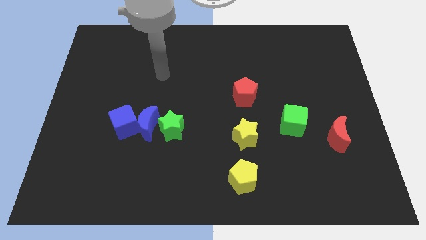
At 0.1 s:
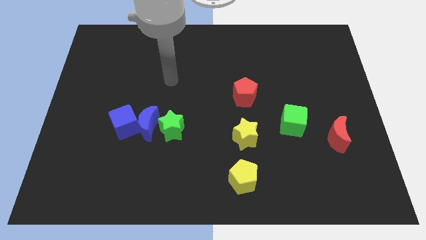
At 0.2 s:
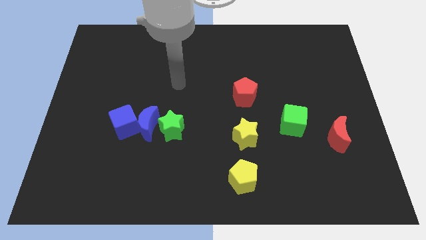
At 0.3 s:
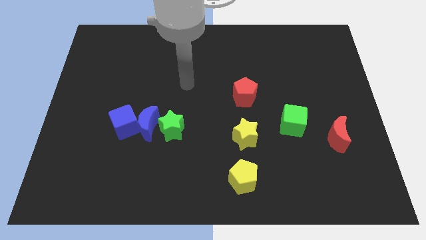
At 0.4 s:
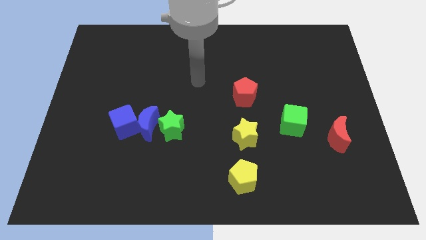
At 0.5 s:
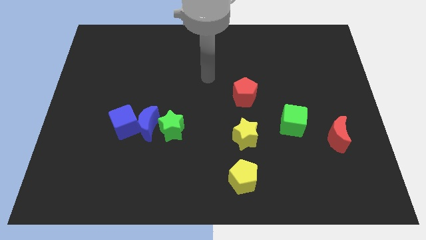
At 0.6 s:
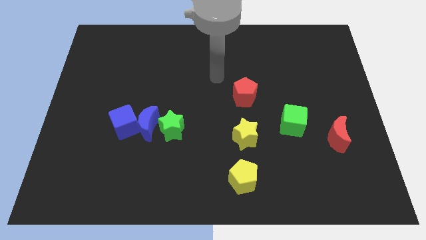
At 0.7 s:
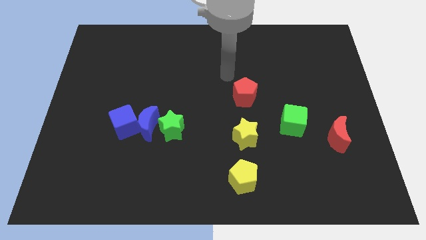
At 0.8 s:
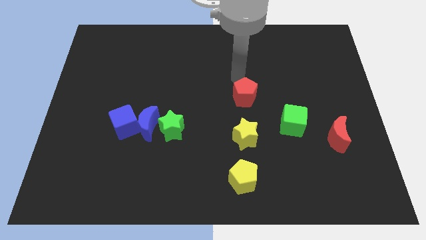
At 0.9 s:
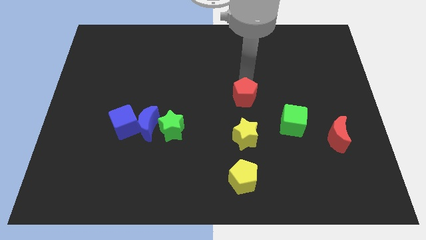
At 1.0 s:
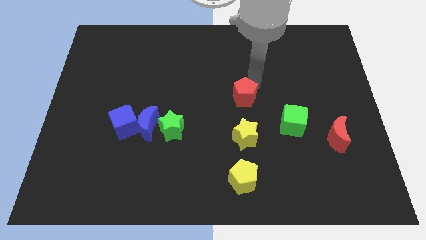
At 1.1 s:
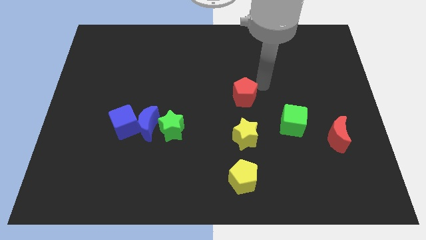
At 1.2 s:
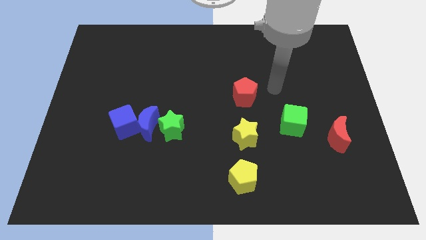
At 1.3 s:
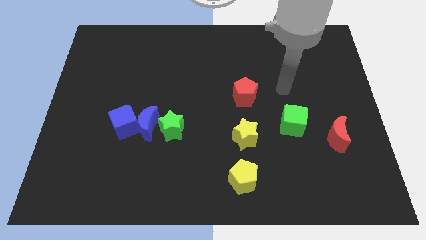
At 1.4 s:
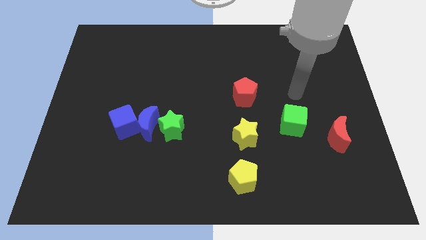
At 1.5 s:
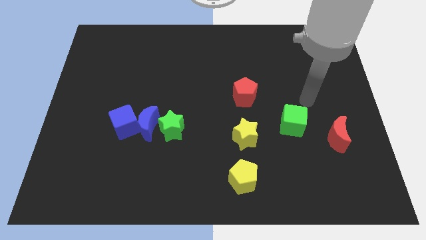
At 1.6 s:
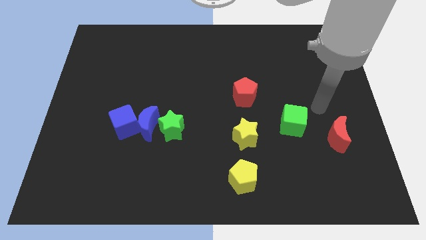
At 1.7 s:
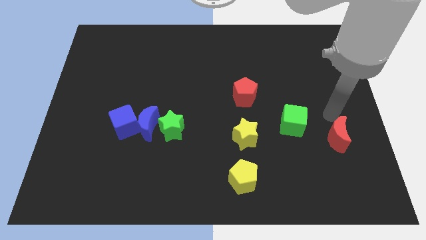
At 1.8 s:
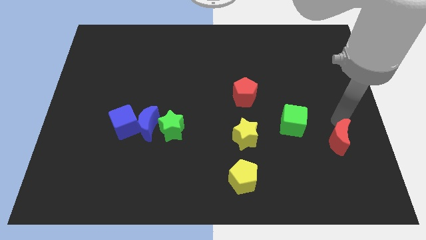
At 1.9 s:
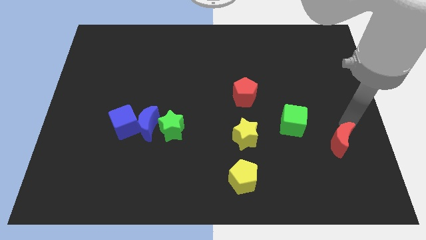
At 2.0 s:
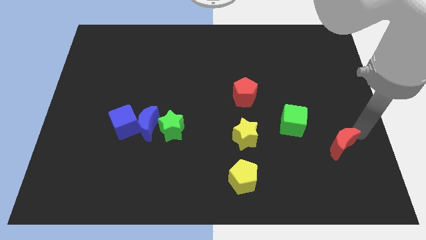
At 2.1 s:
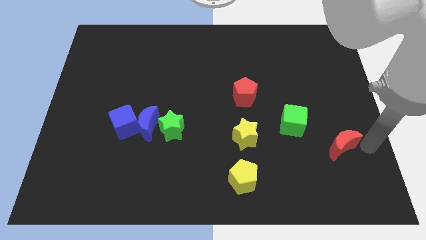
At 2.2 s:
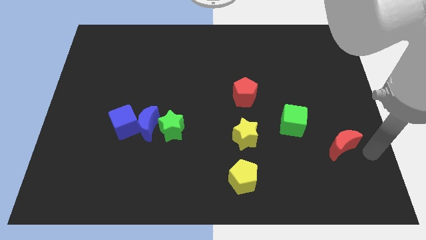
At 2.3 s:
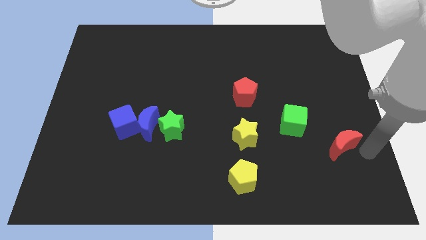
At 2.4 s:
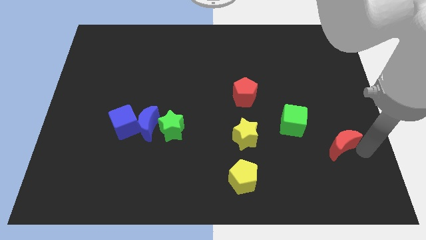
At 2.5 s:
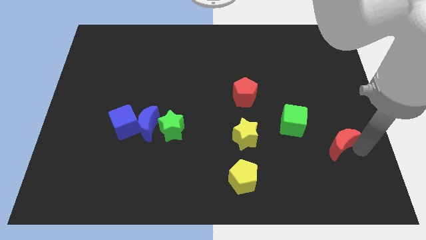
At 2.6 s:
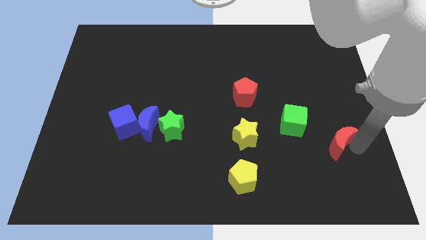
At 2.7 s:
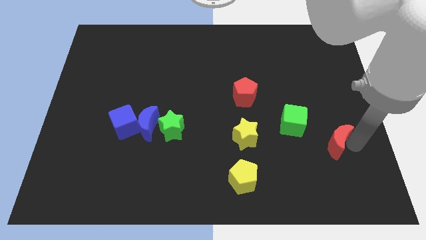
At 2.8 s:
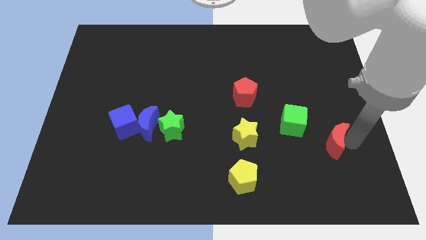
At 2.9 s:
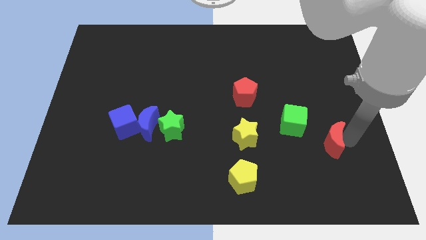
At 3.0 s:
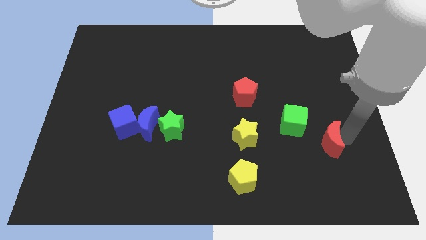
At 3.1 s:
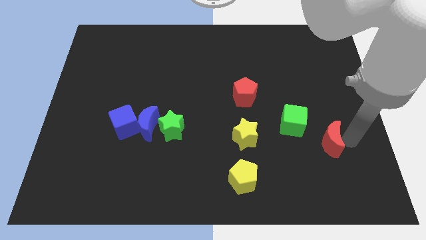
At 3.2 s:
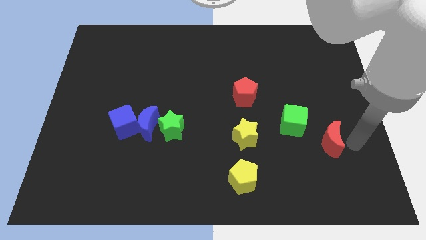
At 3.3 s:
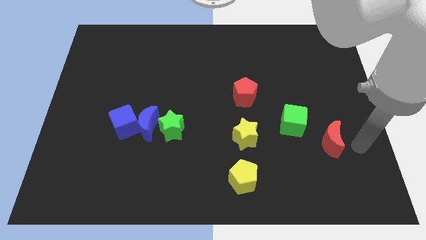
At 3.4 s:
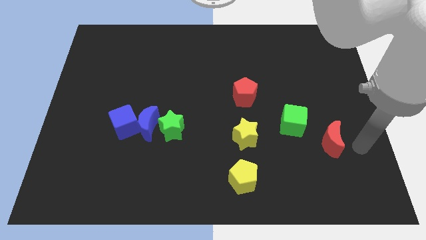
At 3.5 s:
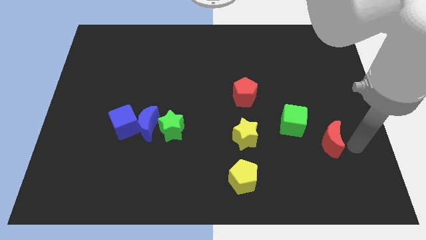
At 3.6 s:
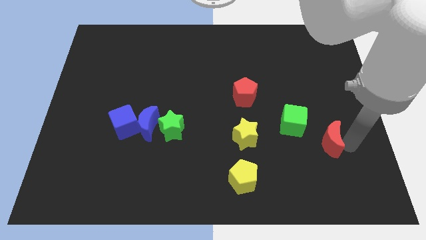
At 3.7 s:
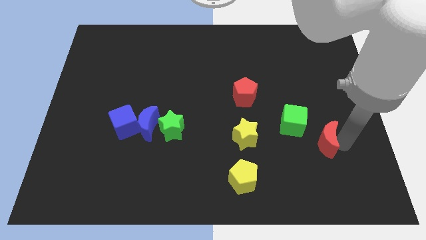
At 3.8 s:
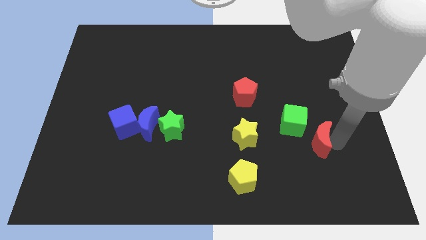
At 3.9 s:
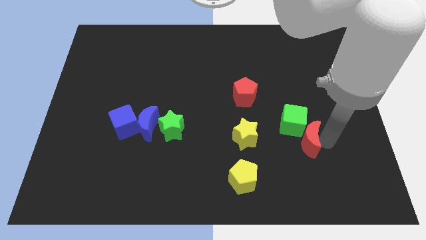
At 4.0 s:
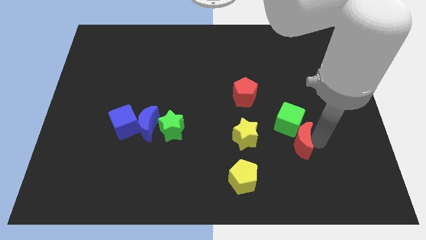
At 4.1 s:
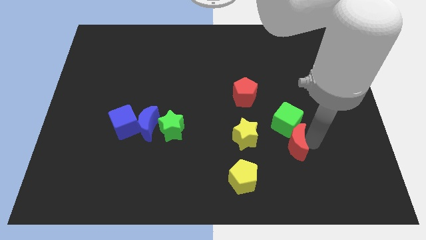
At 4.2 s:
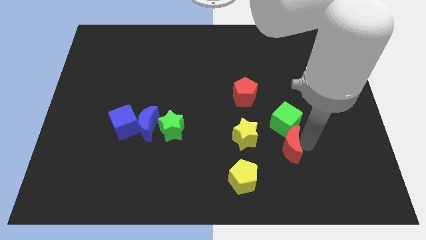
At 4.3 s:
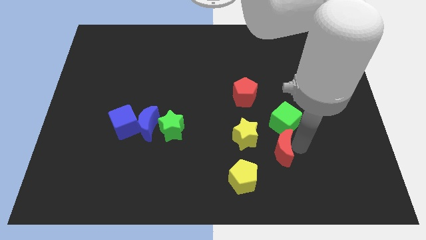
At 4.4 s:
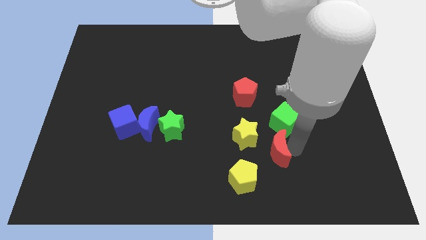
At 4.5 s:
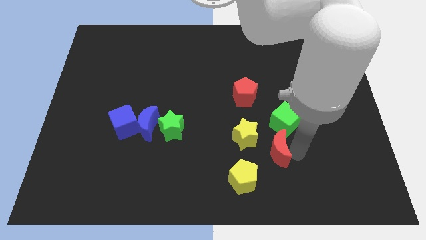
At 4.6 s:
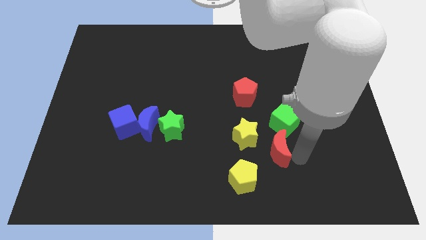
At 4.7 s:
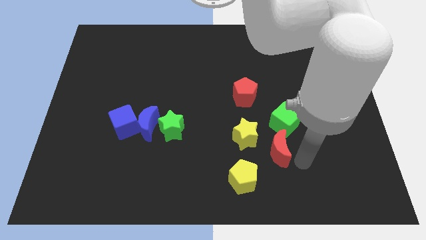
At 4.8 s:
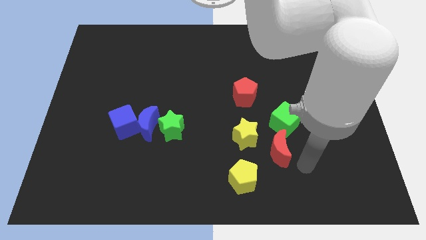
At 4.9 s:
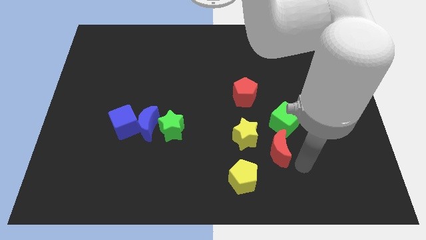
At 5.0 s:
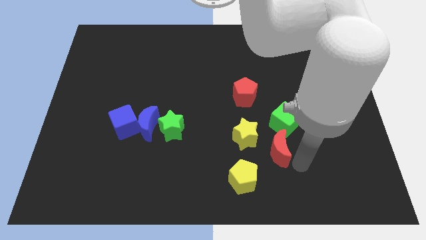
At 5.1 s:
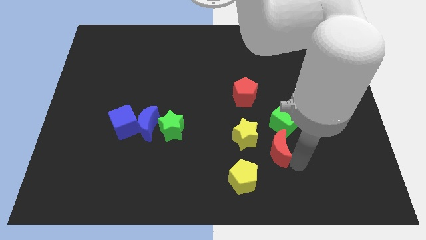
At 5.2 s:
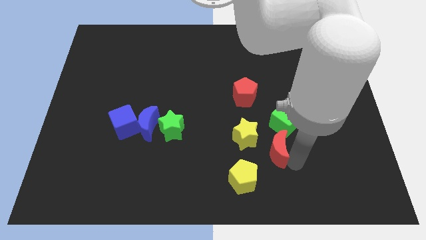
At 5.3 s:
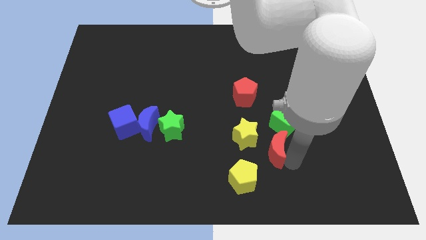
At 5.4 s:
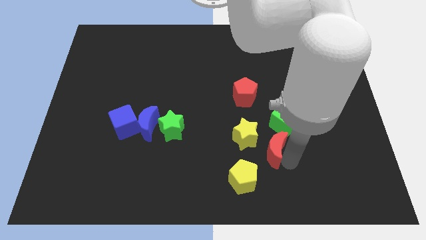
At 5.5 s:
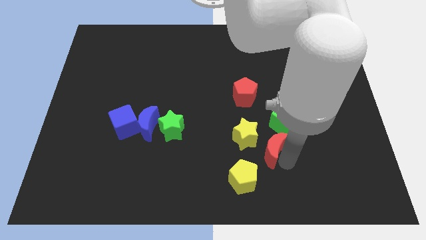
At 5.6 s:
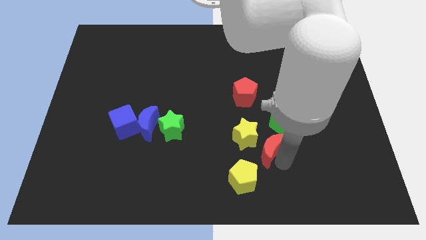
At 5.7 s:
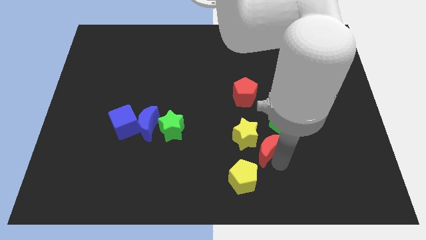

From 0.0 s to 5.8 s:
move the red moon towards the yellow star

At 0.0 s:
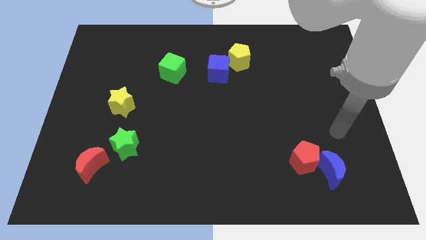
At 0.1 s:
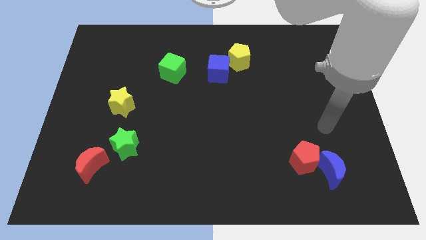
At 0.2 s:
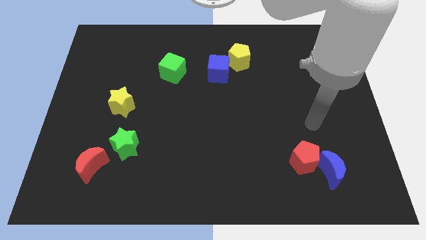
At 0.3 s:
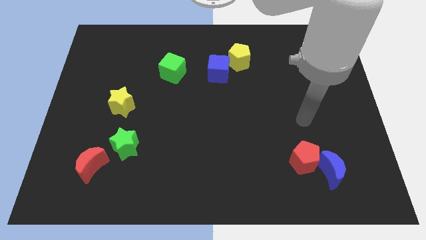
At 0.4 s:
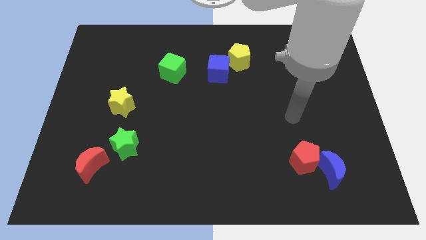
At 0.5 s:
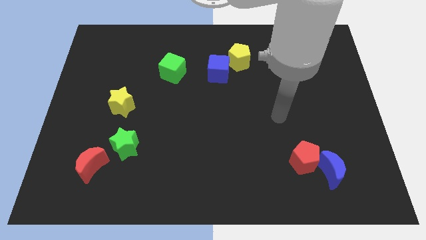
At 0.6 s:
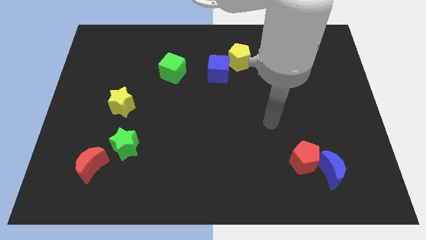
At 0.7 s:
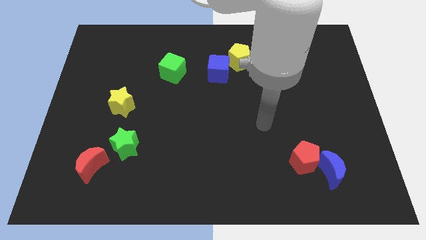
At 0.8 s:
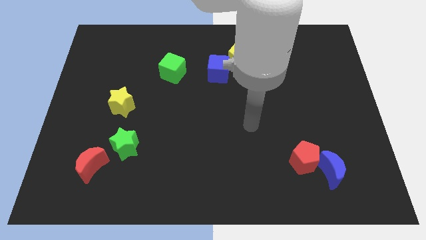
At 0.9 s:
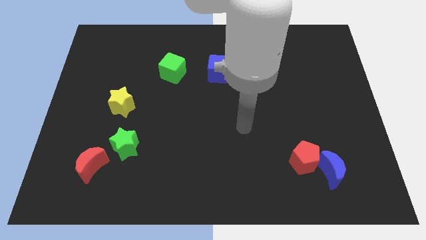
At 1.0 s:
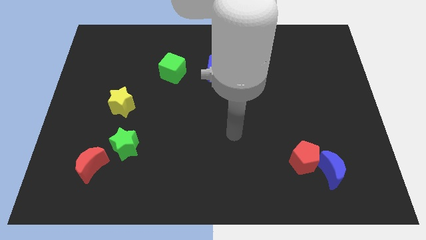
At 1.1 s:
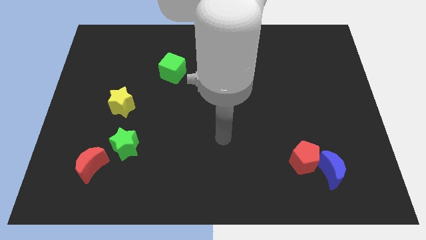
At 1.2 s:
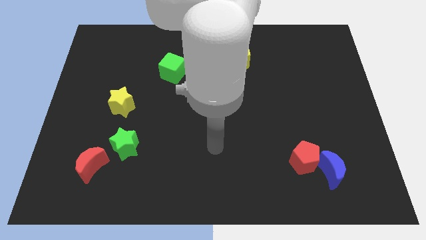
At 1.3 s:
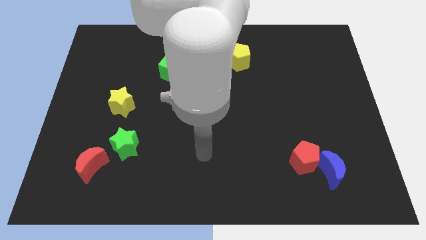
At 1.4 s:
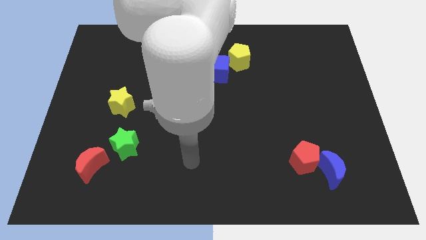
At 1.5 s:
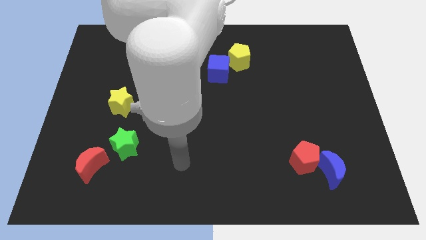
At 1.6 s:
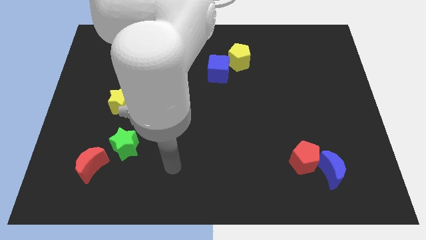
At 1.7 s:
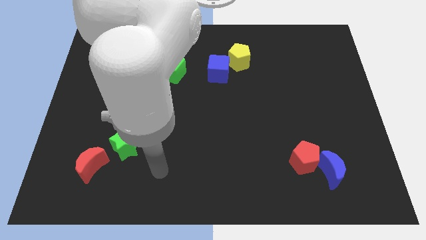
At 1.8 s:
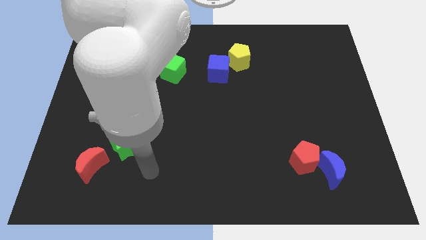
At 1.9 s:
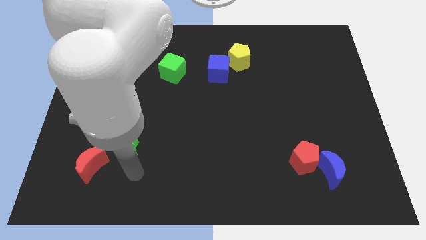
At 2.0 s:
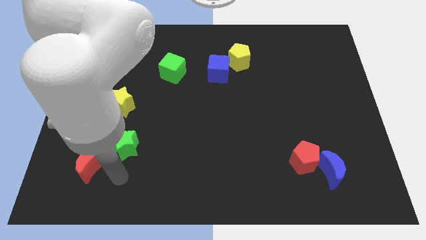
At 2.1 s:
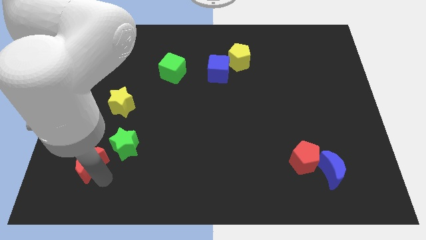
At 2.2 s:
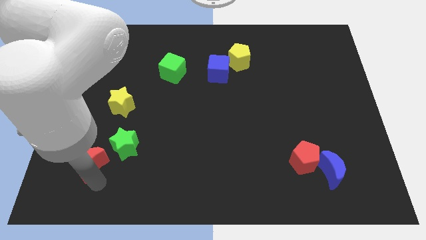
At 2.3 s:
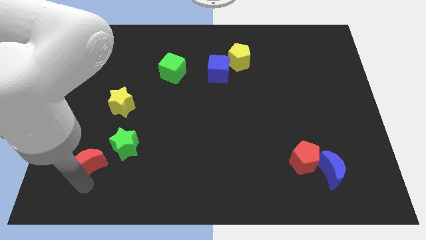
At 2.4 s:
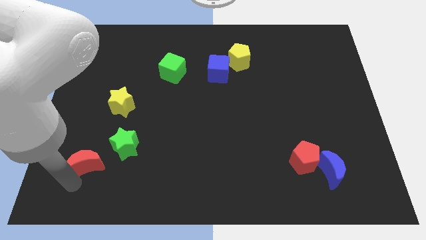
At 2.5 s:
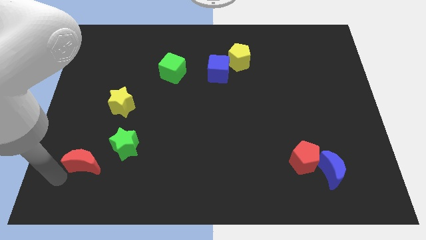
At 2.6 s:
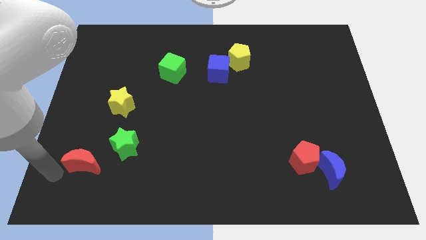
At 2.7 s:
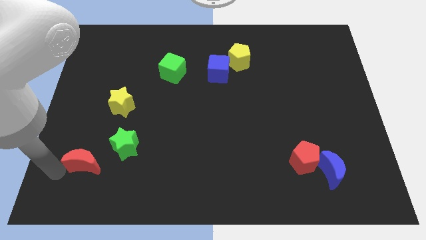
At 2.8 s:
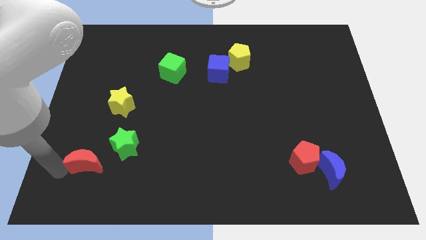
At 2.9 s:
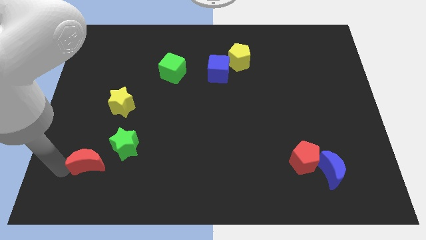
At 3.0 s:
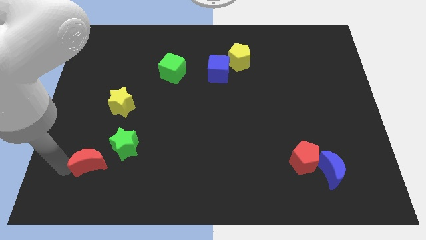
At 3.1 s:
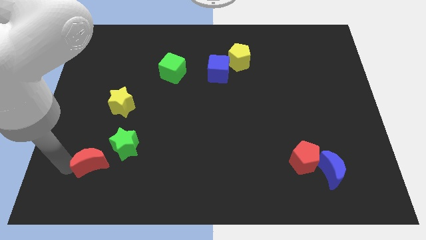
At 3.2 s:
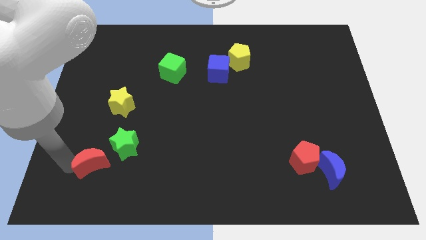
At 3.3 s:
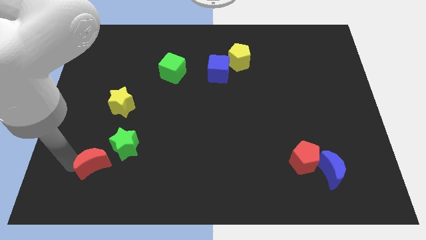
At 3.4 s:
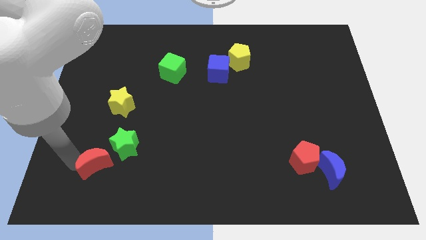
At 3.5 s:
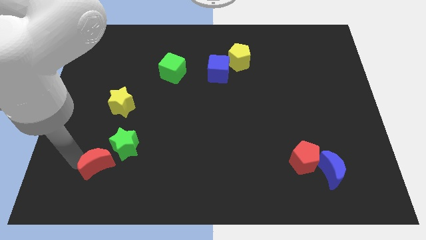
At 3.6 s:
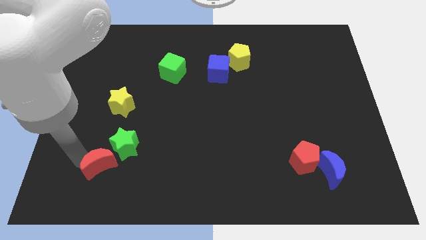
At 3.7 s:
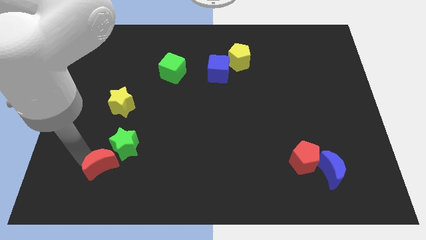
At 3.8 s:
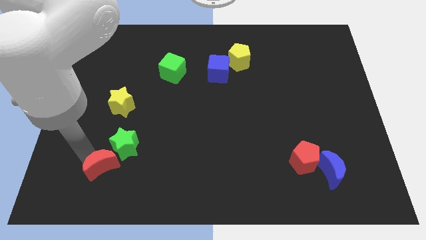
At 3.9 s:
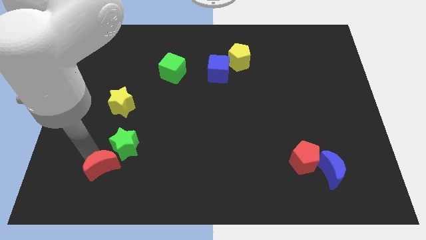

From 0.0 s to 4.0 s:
move the red moon towards the green star
